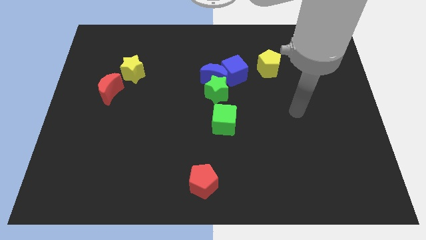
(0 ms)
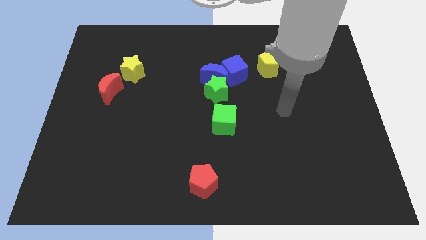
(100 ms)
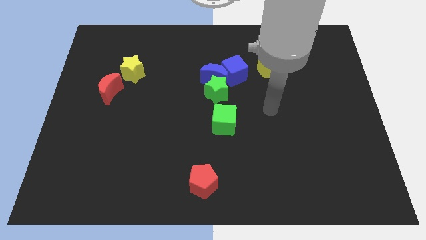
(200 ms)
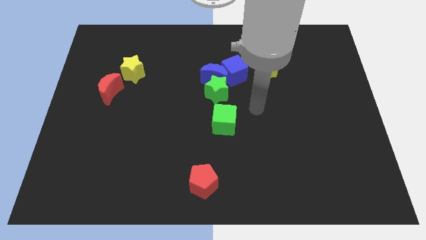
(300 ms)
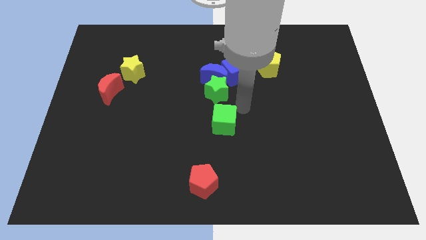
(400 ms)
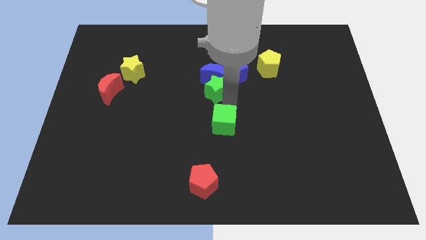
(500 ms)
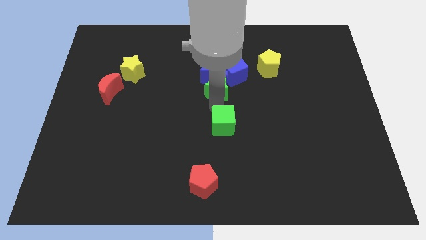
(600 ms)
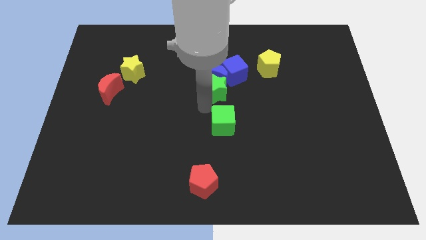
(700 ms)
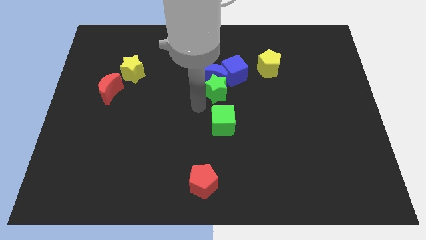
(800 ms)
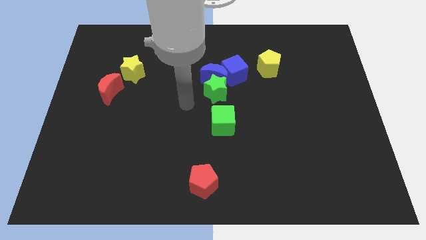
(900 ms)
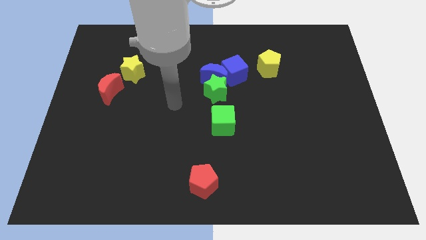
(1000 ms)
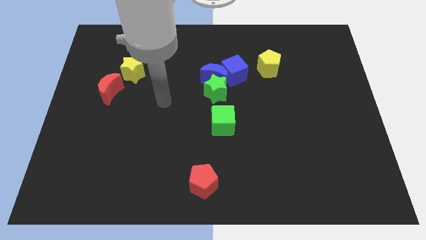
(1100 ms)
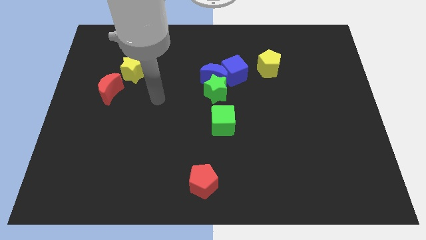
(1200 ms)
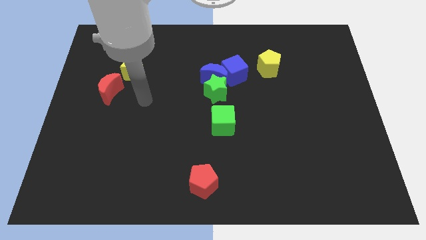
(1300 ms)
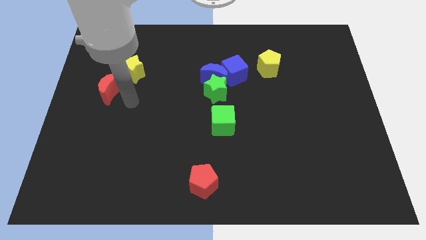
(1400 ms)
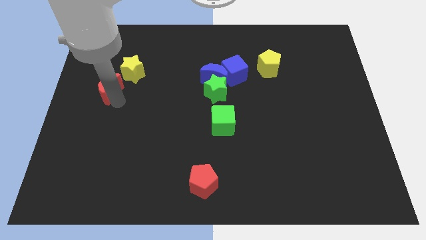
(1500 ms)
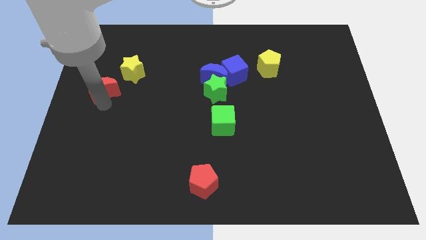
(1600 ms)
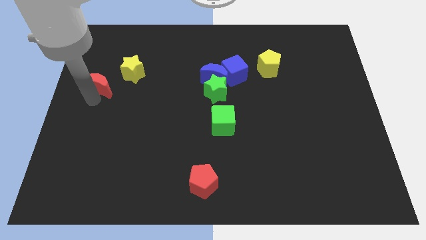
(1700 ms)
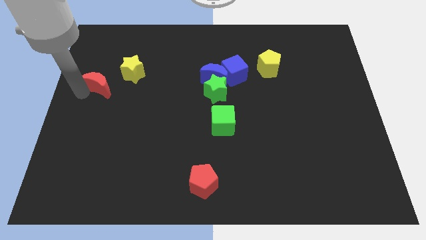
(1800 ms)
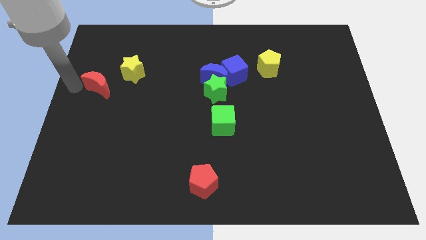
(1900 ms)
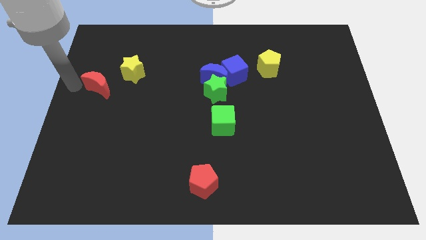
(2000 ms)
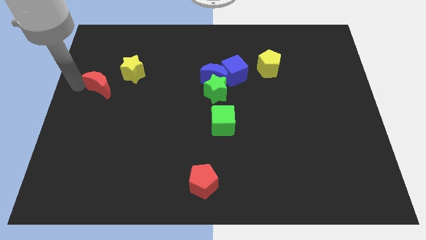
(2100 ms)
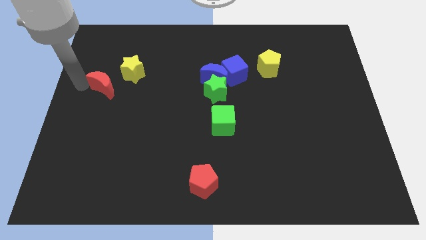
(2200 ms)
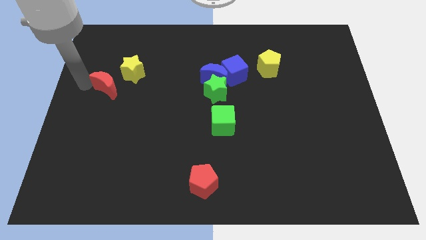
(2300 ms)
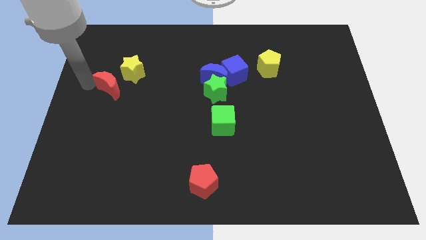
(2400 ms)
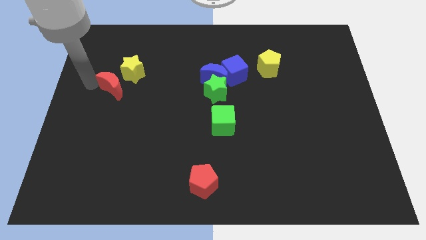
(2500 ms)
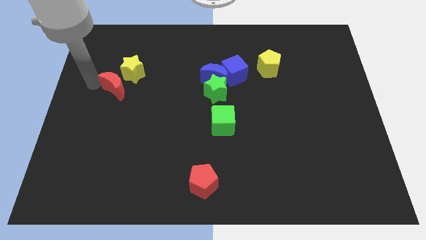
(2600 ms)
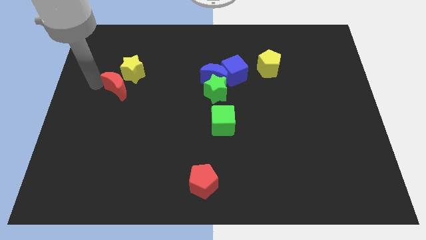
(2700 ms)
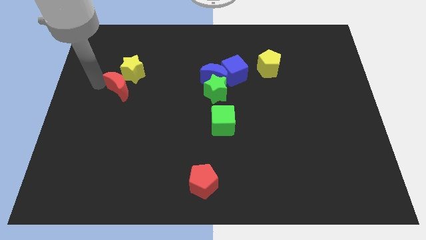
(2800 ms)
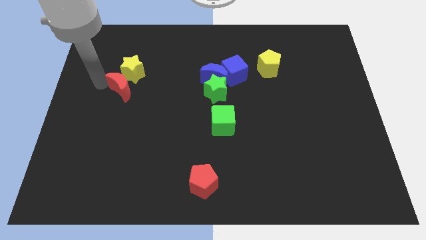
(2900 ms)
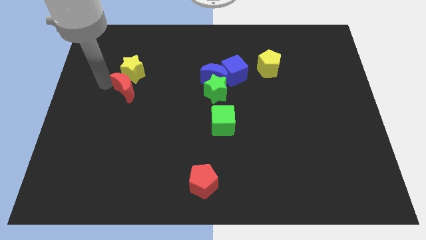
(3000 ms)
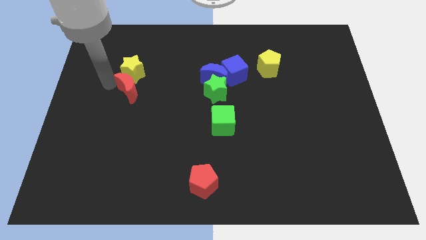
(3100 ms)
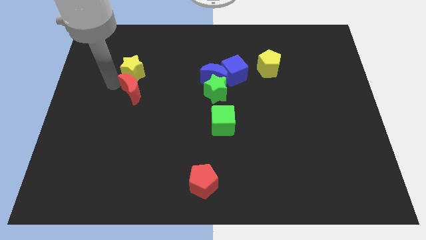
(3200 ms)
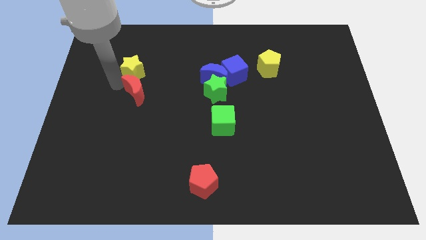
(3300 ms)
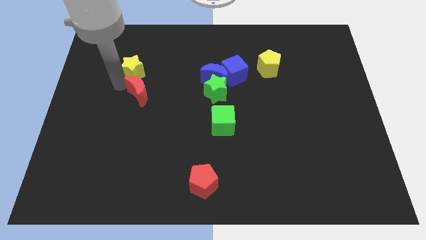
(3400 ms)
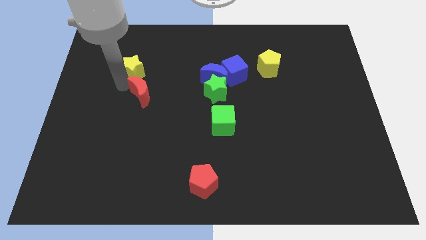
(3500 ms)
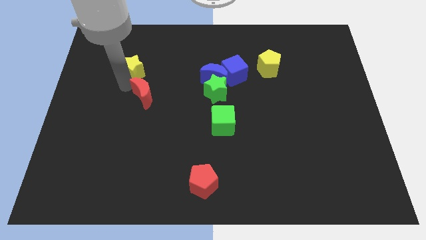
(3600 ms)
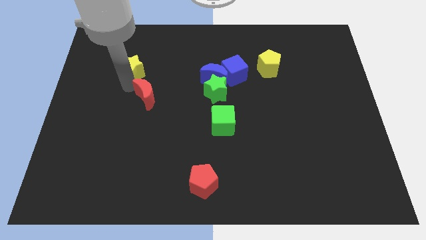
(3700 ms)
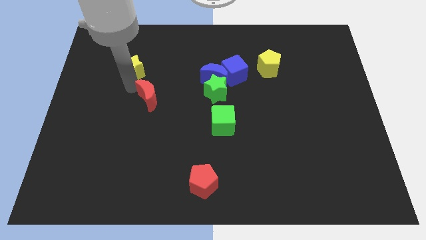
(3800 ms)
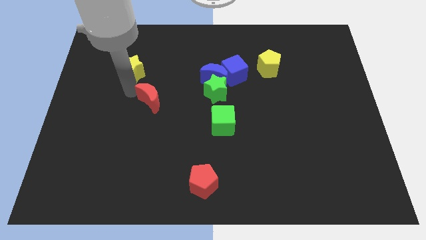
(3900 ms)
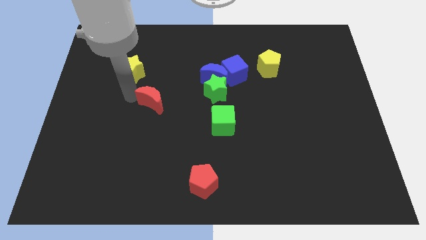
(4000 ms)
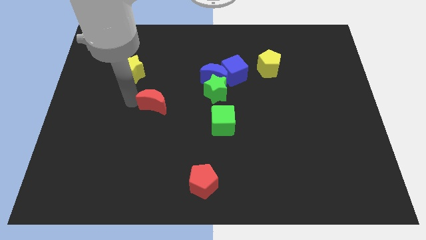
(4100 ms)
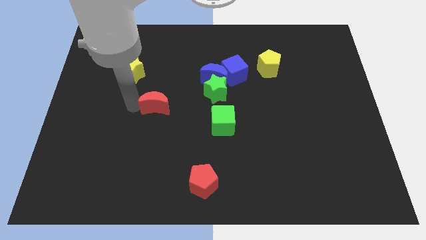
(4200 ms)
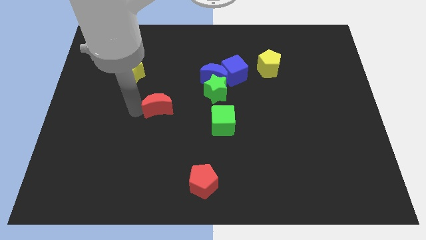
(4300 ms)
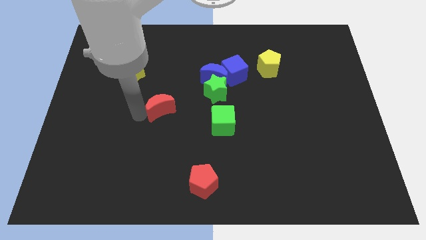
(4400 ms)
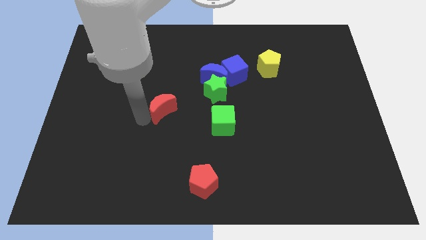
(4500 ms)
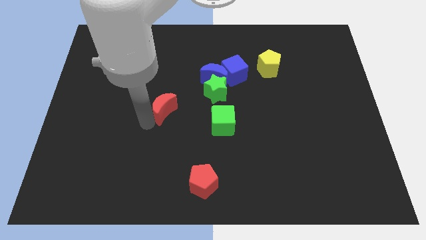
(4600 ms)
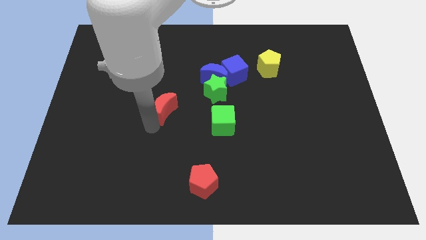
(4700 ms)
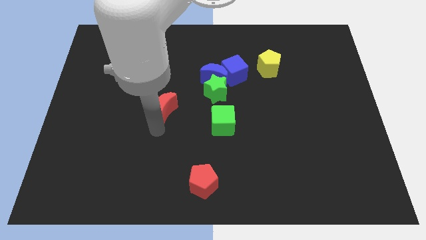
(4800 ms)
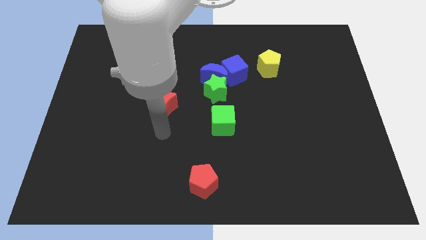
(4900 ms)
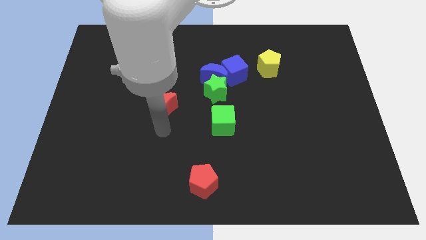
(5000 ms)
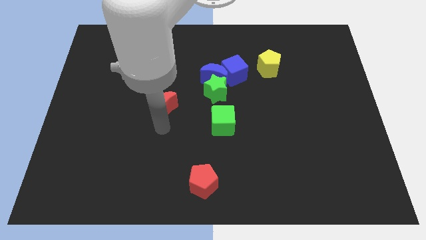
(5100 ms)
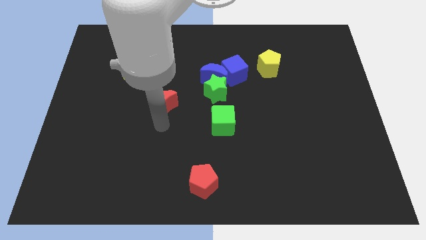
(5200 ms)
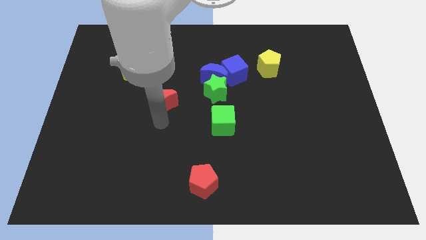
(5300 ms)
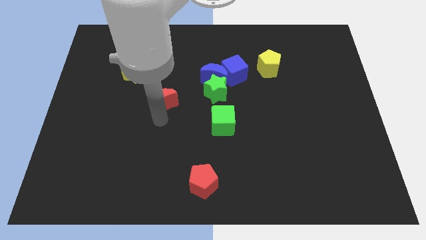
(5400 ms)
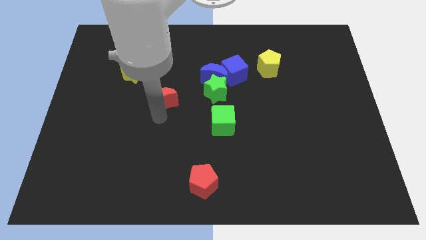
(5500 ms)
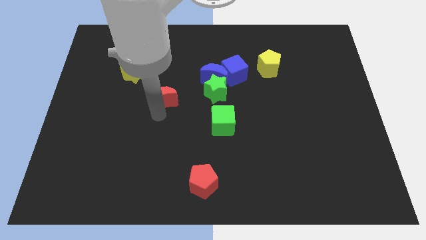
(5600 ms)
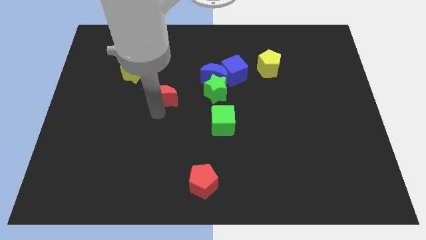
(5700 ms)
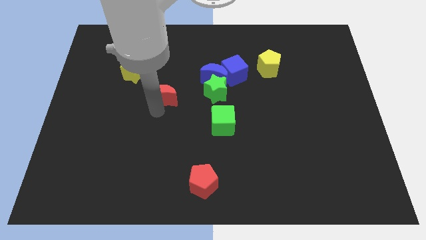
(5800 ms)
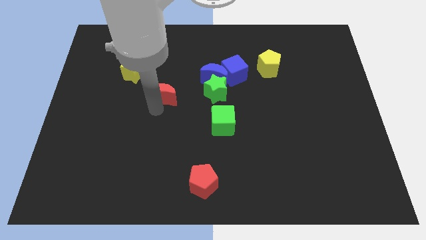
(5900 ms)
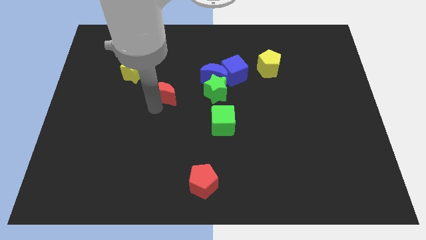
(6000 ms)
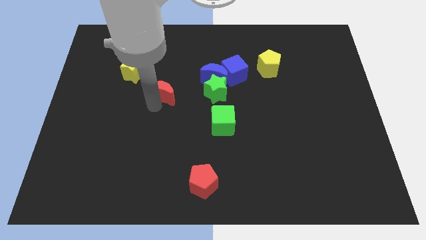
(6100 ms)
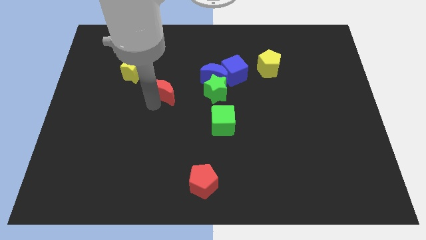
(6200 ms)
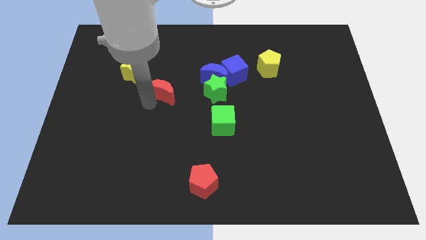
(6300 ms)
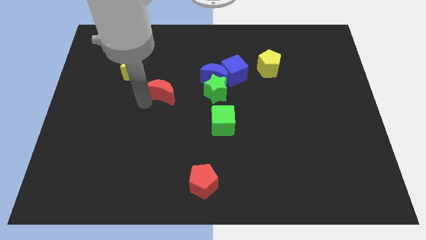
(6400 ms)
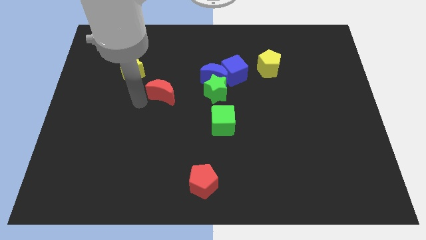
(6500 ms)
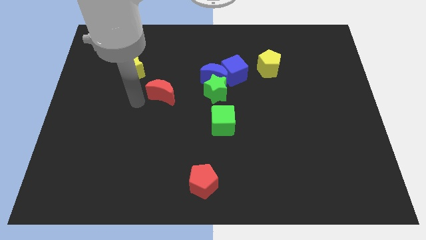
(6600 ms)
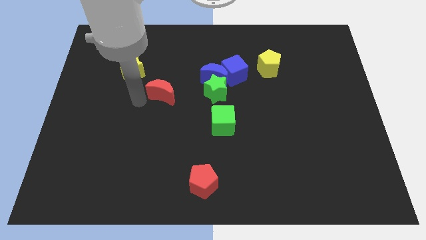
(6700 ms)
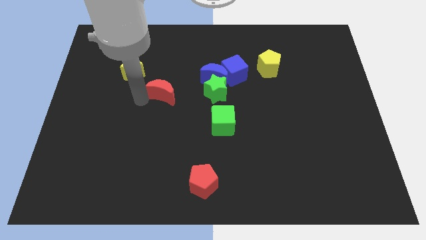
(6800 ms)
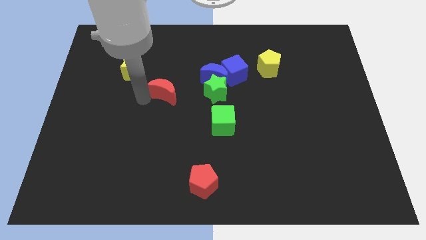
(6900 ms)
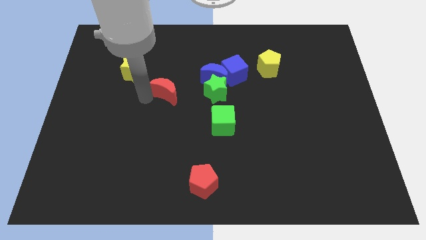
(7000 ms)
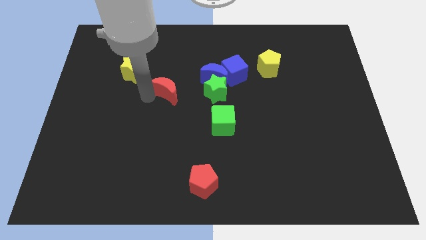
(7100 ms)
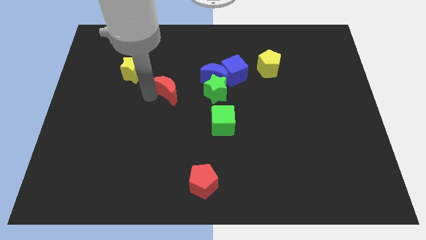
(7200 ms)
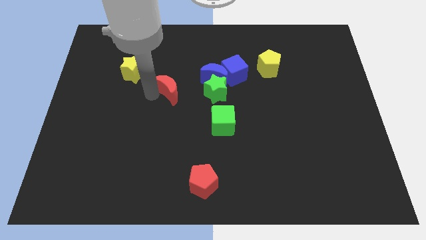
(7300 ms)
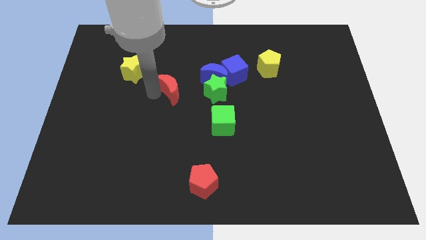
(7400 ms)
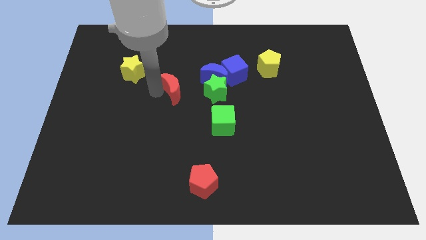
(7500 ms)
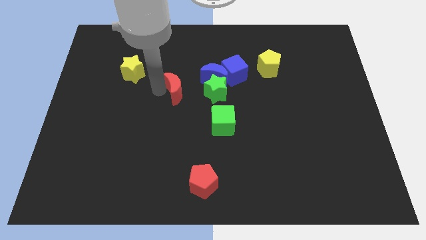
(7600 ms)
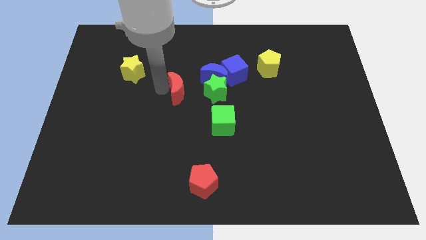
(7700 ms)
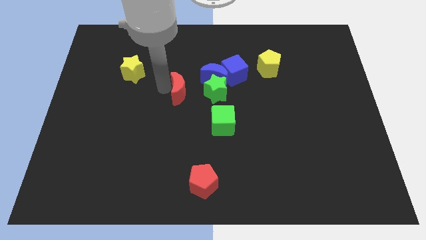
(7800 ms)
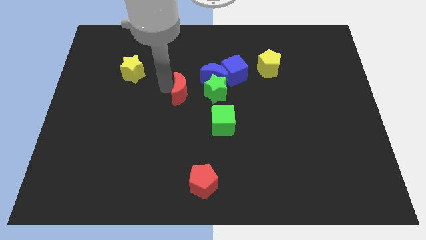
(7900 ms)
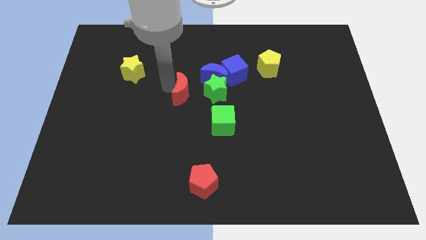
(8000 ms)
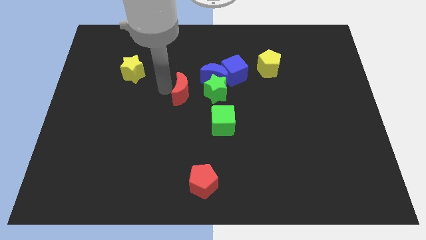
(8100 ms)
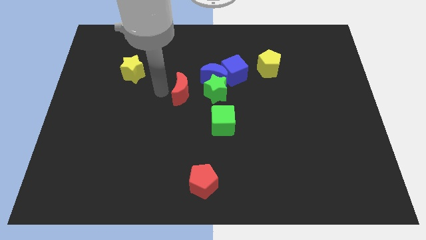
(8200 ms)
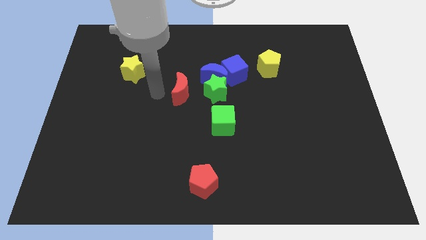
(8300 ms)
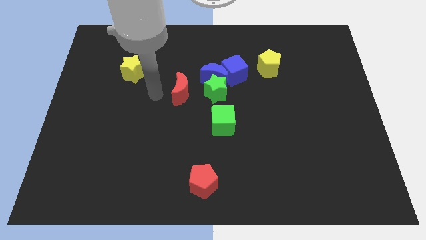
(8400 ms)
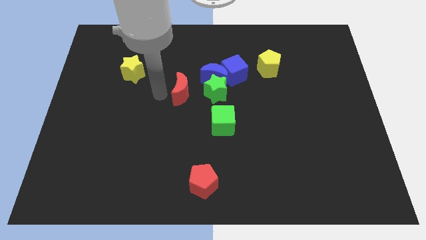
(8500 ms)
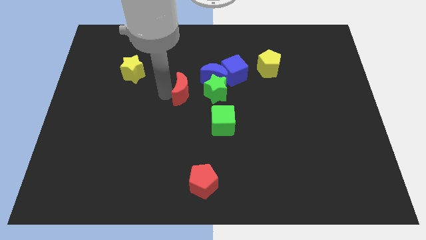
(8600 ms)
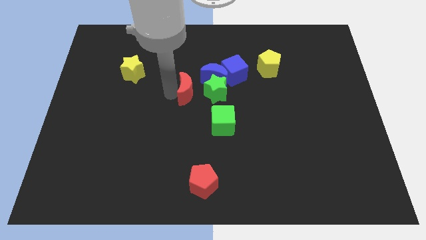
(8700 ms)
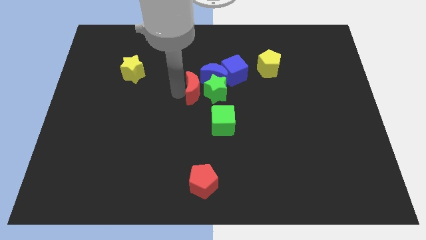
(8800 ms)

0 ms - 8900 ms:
move the red moon to the green star
